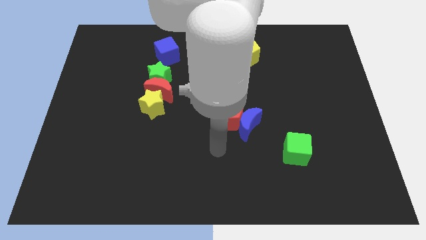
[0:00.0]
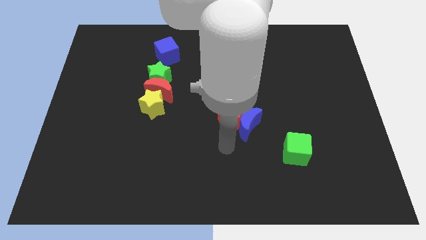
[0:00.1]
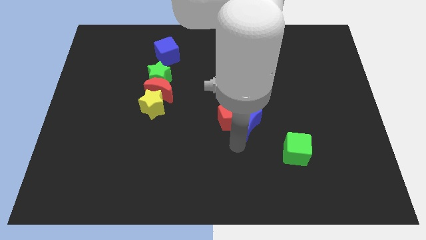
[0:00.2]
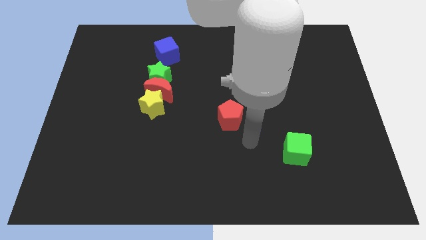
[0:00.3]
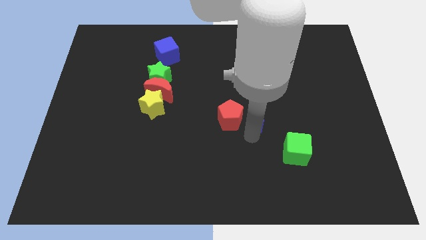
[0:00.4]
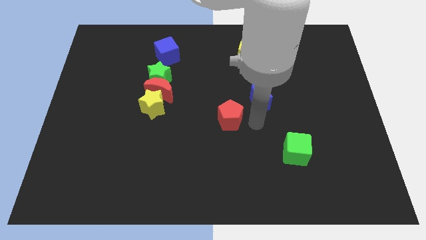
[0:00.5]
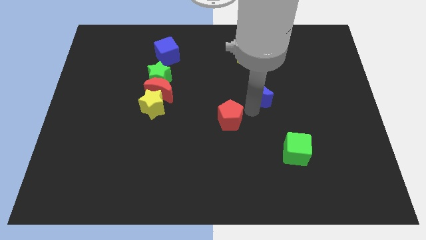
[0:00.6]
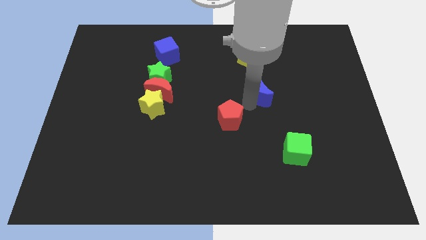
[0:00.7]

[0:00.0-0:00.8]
pull the red pentagon apart from the blue moon

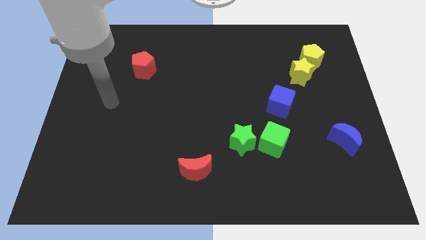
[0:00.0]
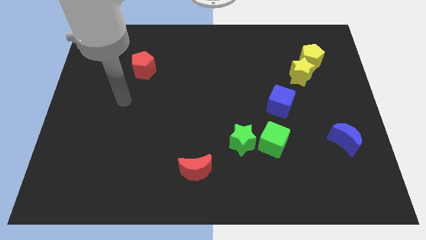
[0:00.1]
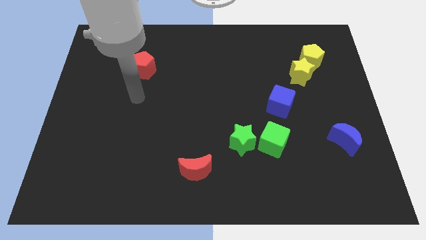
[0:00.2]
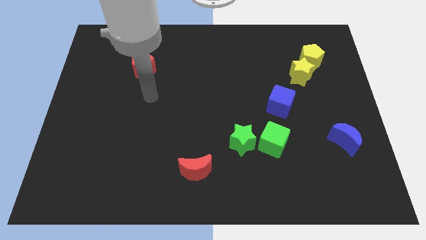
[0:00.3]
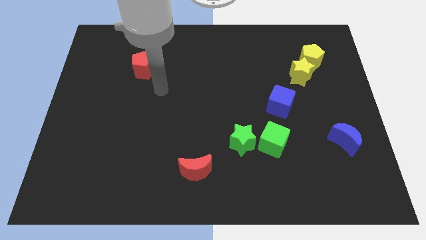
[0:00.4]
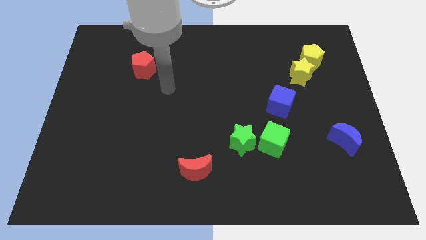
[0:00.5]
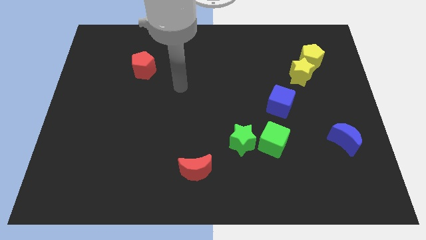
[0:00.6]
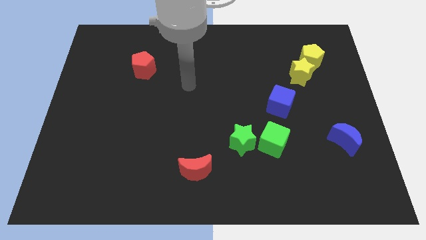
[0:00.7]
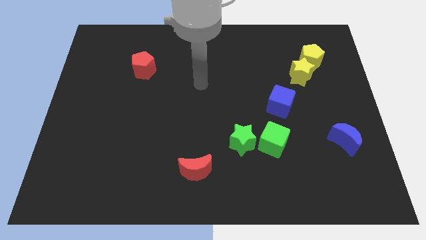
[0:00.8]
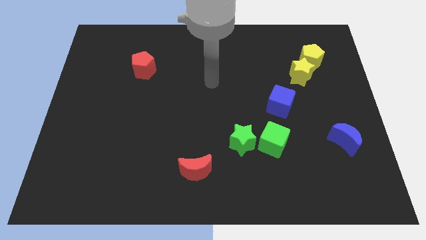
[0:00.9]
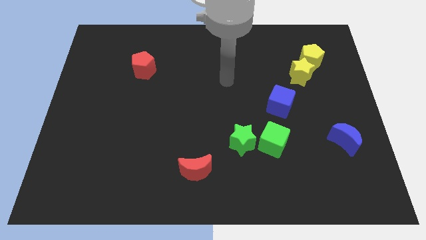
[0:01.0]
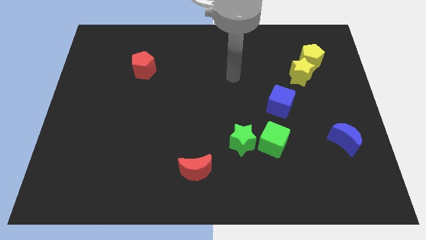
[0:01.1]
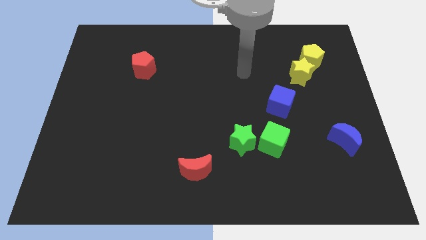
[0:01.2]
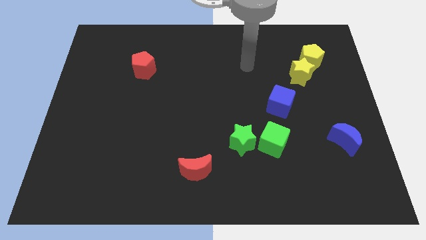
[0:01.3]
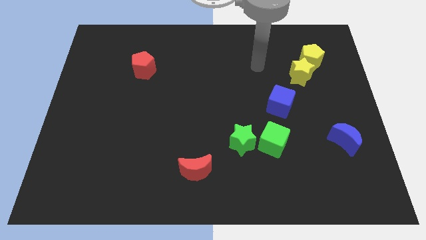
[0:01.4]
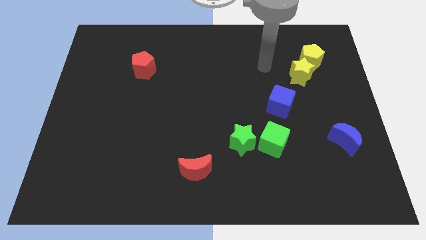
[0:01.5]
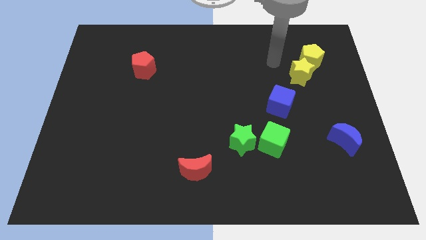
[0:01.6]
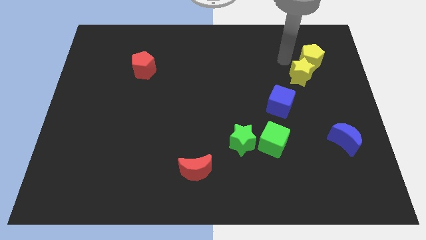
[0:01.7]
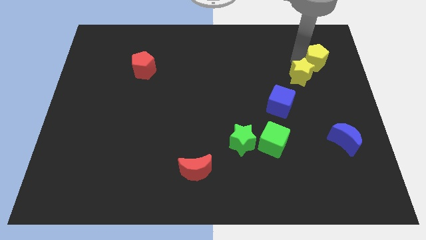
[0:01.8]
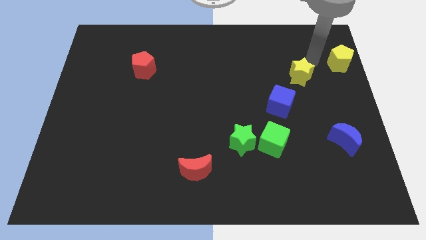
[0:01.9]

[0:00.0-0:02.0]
pull the yellow star apart from the yellow pentagon

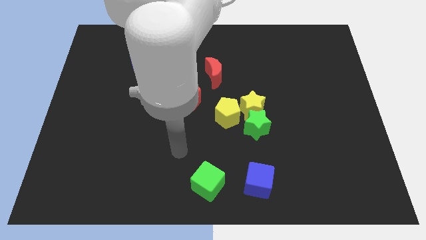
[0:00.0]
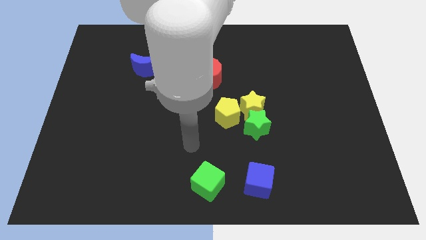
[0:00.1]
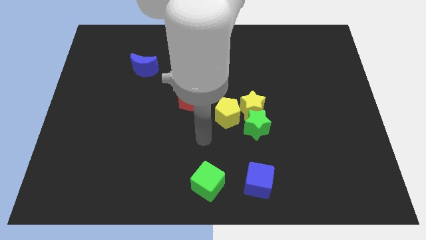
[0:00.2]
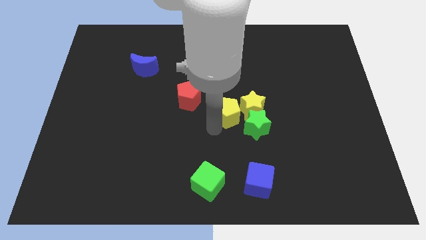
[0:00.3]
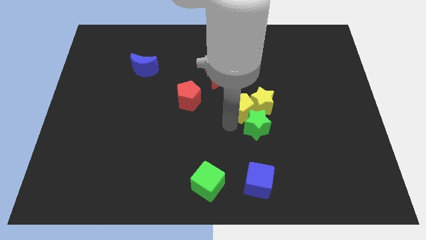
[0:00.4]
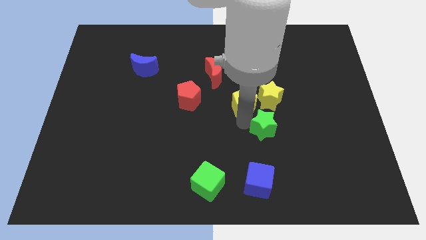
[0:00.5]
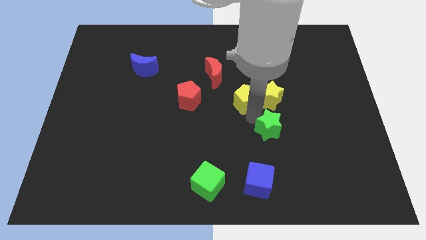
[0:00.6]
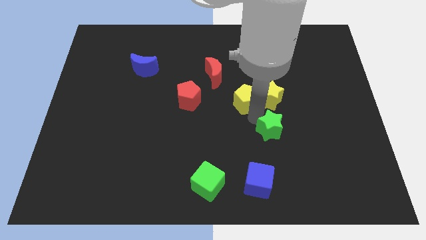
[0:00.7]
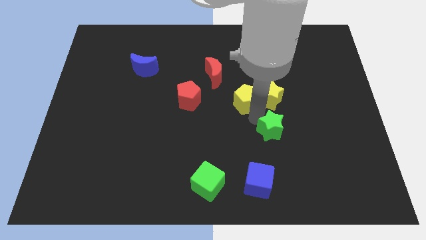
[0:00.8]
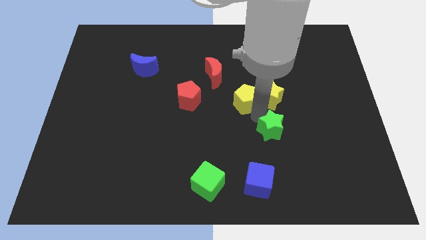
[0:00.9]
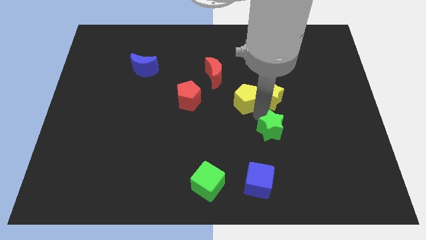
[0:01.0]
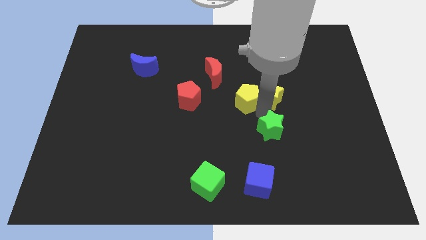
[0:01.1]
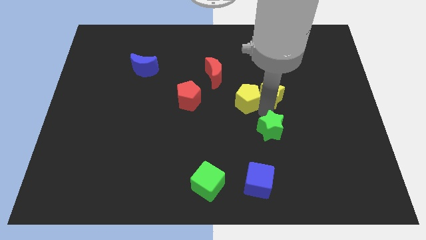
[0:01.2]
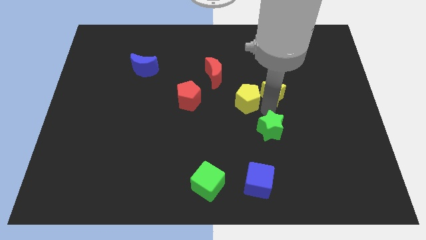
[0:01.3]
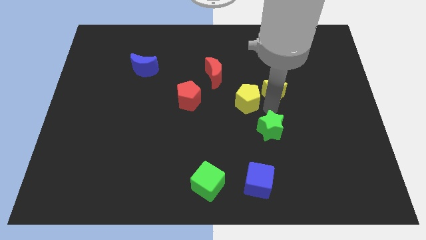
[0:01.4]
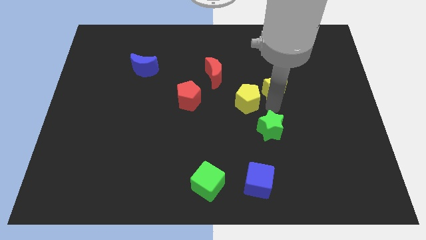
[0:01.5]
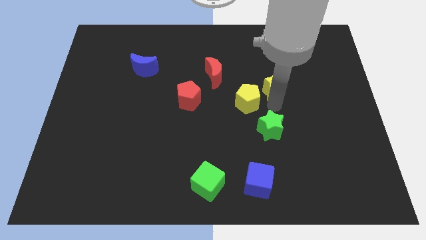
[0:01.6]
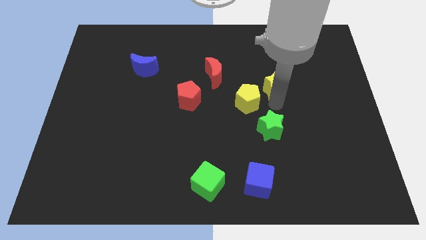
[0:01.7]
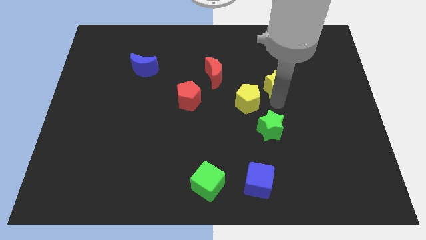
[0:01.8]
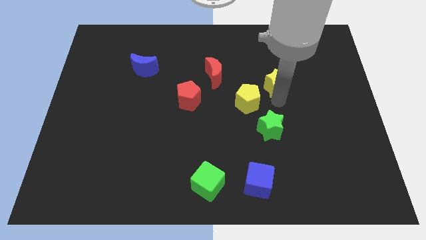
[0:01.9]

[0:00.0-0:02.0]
pull the yellow star apart from the green star and yellow pentagon

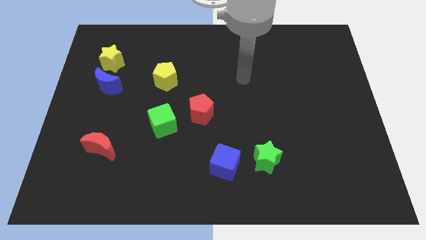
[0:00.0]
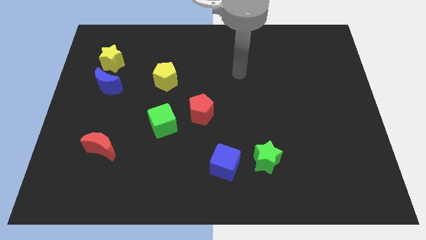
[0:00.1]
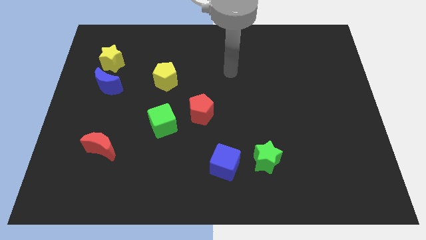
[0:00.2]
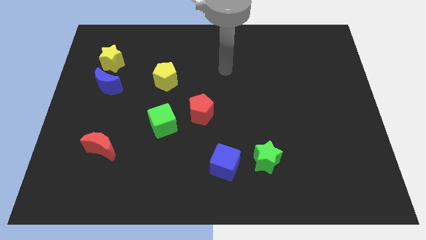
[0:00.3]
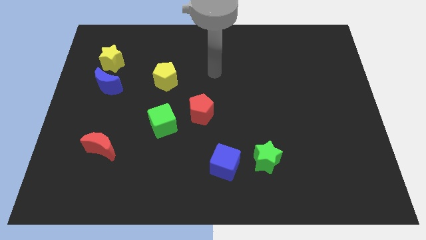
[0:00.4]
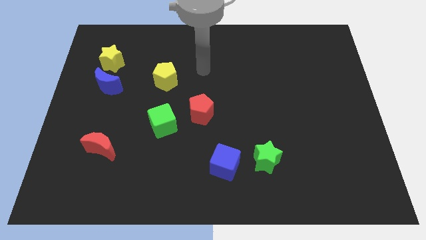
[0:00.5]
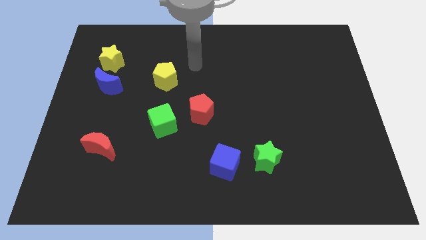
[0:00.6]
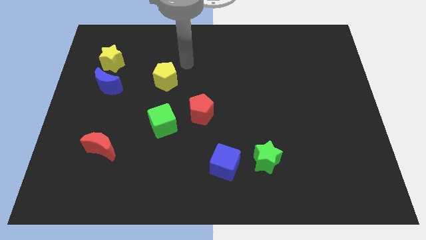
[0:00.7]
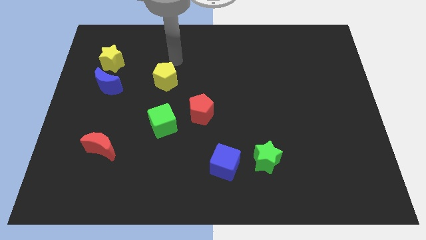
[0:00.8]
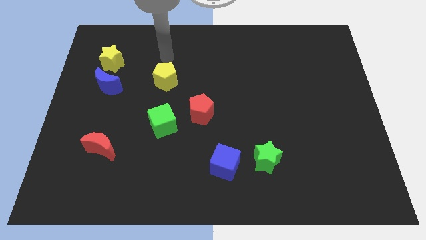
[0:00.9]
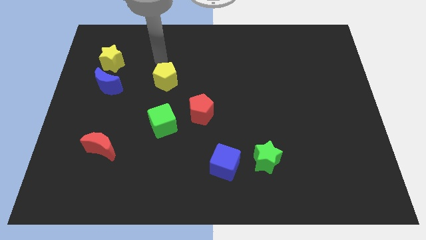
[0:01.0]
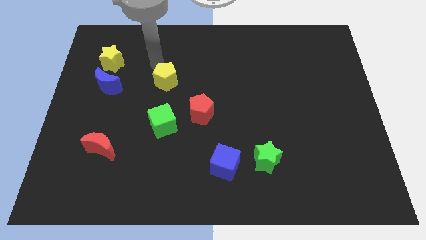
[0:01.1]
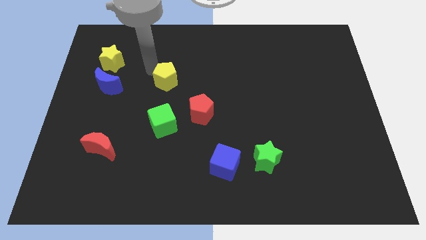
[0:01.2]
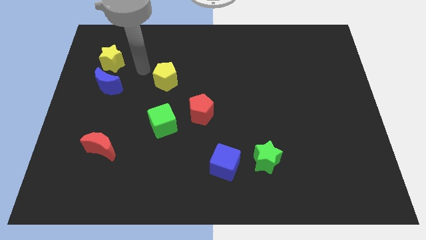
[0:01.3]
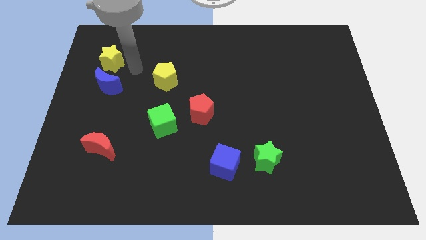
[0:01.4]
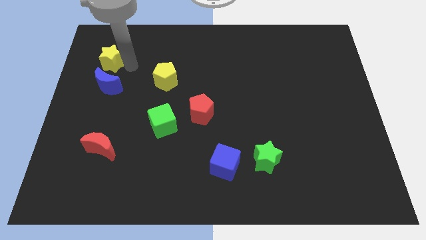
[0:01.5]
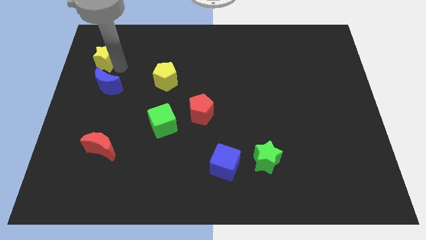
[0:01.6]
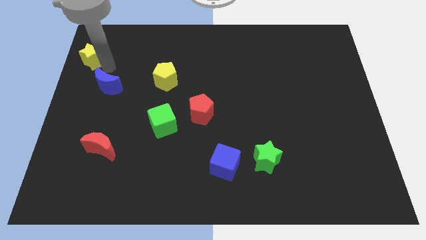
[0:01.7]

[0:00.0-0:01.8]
move the blue moon away from the yellow star

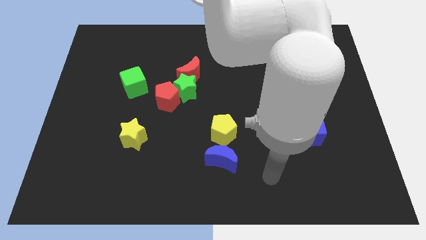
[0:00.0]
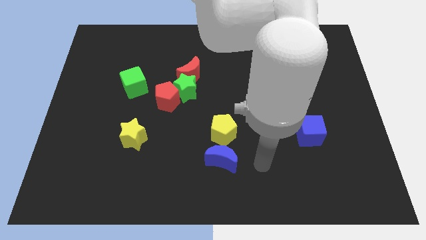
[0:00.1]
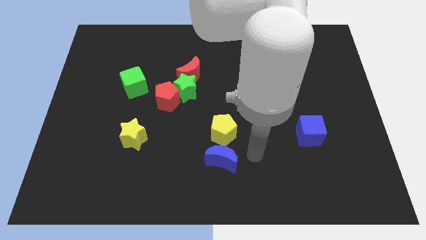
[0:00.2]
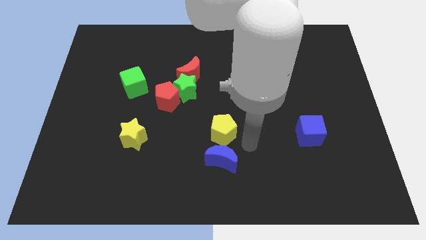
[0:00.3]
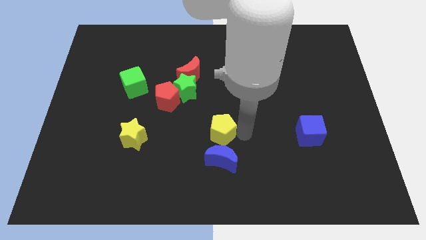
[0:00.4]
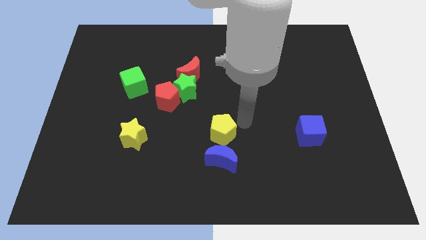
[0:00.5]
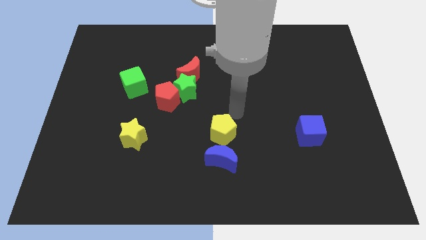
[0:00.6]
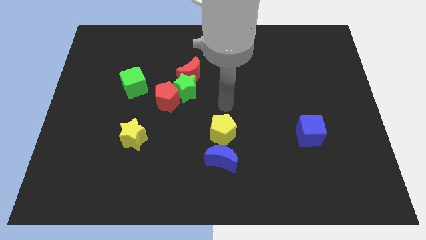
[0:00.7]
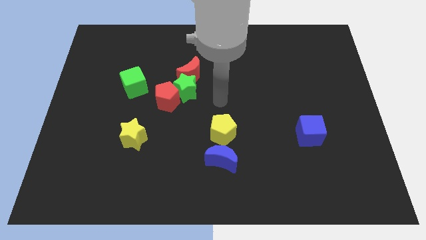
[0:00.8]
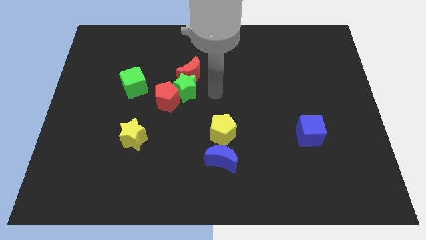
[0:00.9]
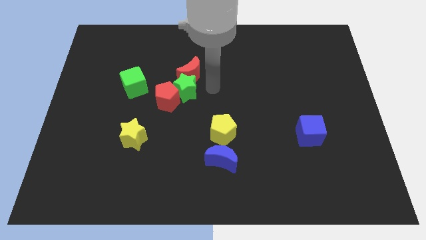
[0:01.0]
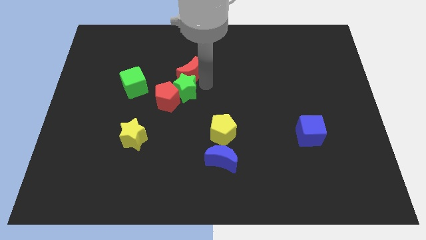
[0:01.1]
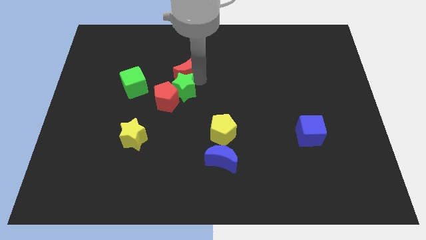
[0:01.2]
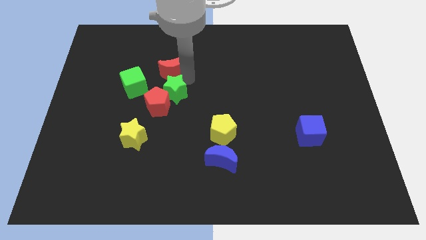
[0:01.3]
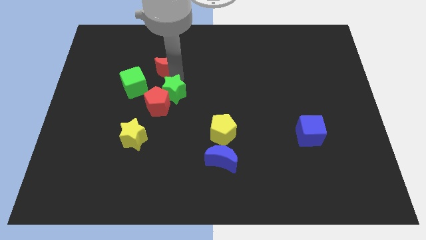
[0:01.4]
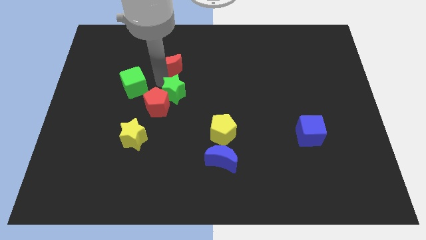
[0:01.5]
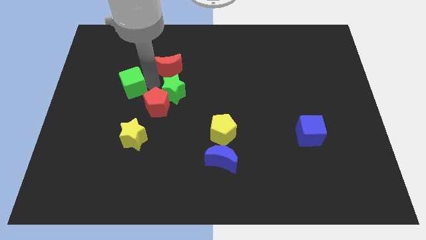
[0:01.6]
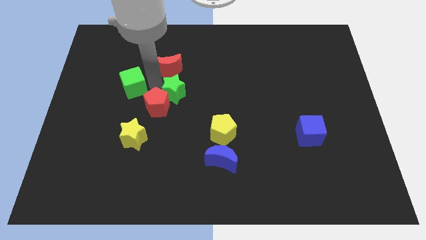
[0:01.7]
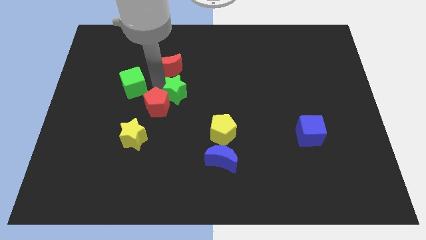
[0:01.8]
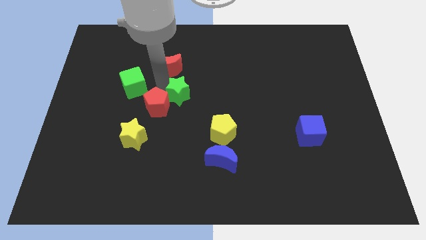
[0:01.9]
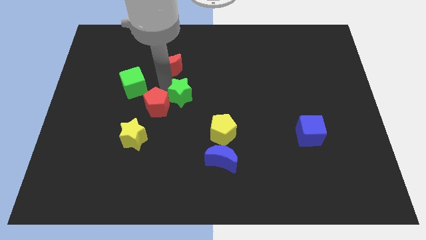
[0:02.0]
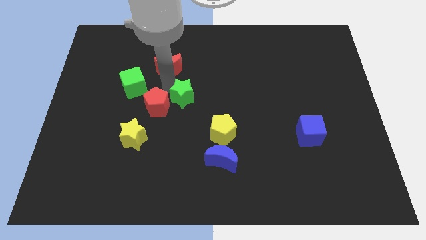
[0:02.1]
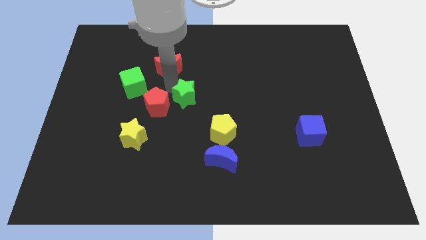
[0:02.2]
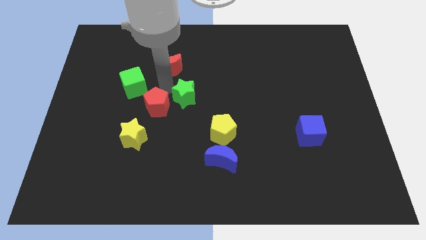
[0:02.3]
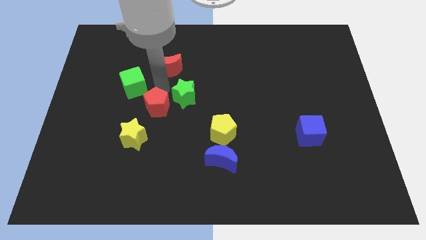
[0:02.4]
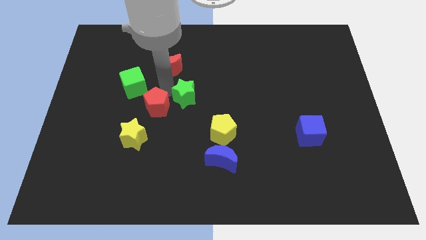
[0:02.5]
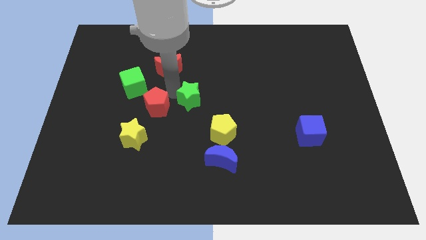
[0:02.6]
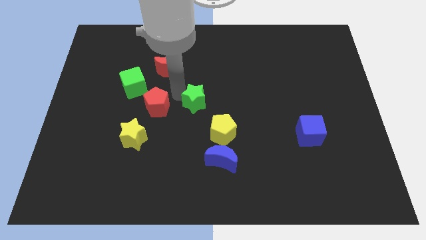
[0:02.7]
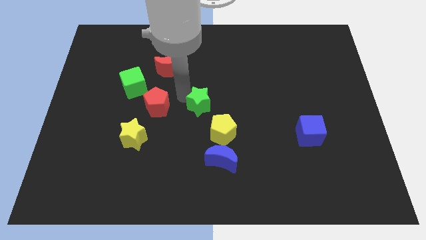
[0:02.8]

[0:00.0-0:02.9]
pull the green star apart from the red pentagon and red moon

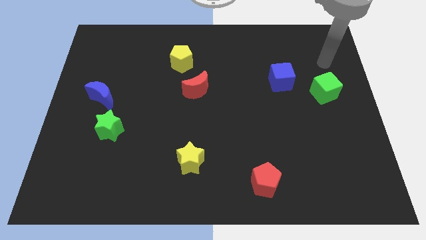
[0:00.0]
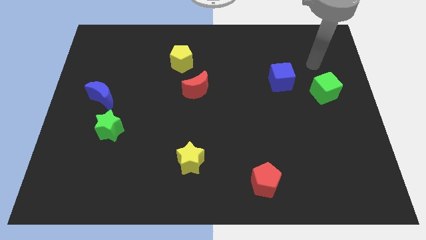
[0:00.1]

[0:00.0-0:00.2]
separate the blue moon from the green star
